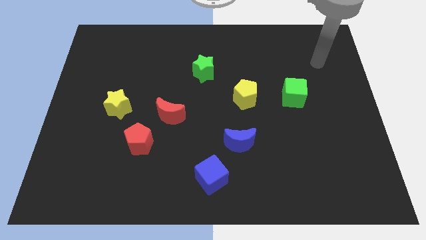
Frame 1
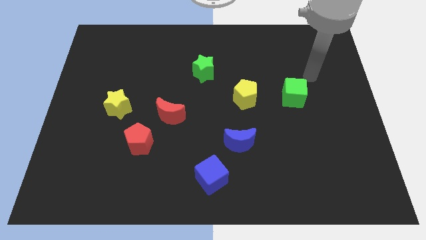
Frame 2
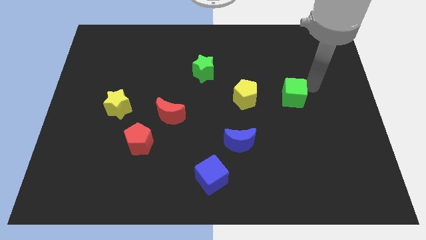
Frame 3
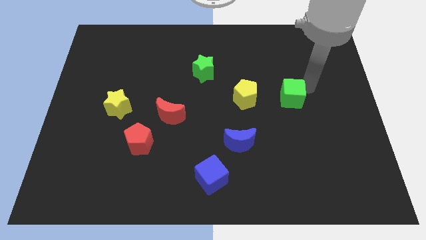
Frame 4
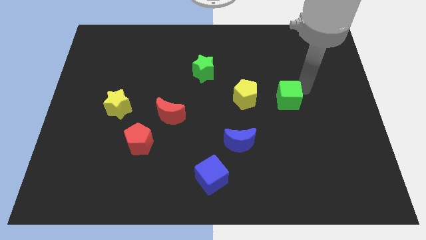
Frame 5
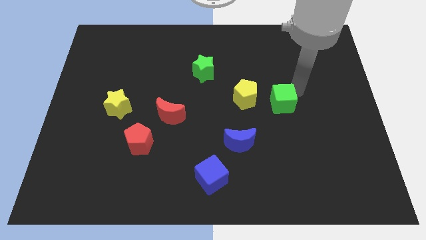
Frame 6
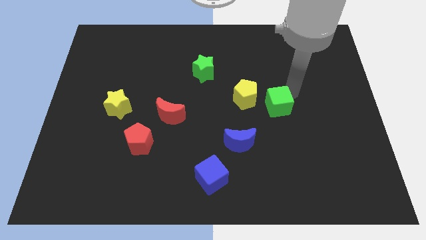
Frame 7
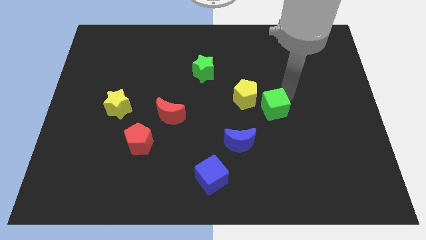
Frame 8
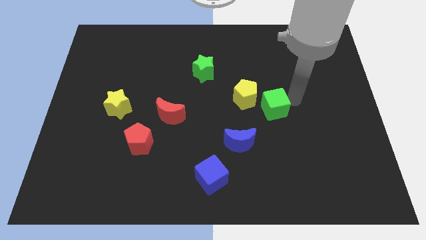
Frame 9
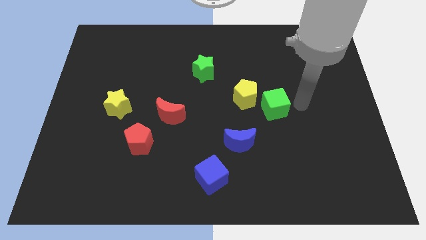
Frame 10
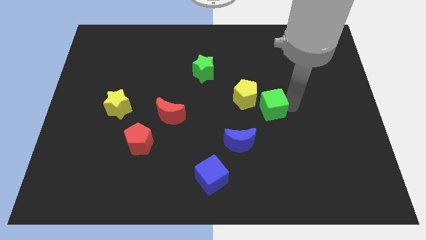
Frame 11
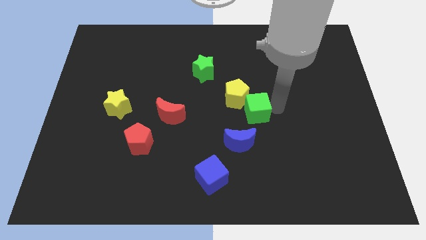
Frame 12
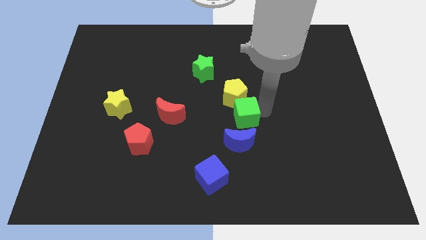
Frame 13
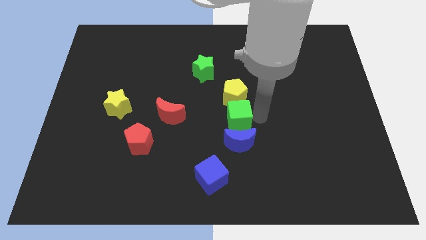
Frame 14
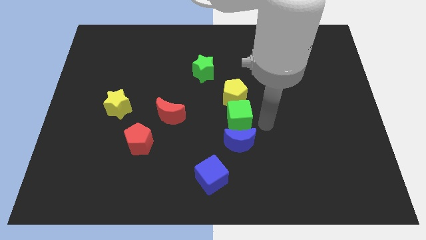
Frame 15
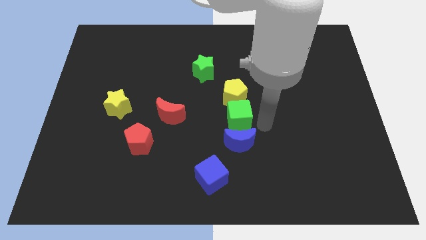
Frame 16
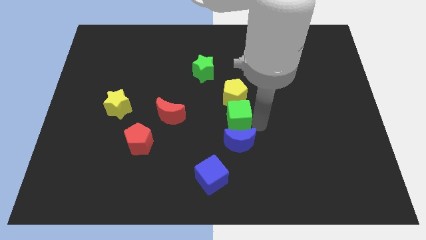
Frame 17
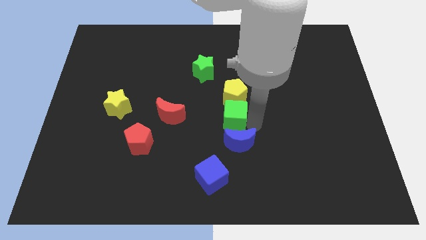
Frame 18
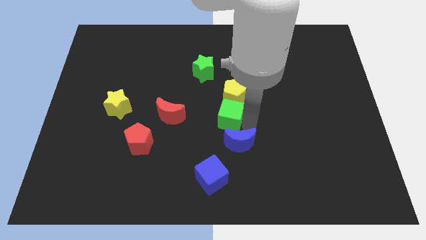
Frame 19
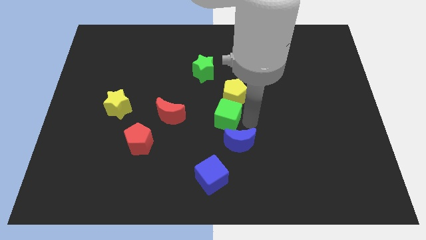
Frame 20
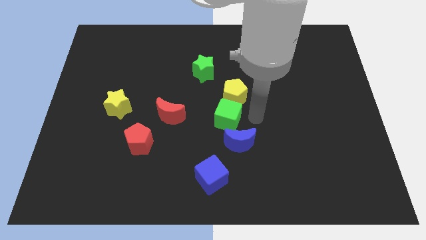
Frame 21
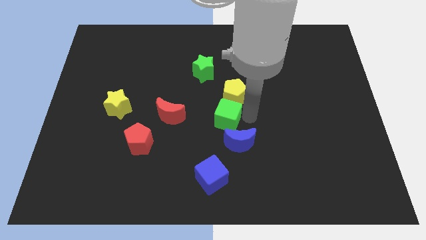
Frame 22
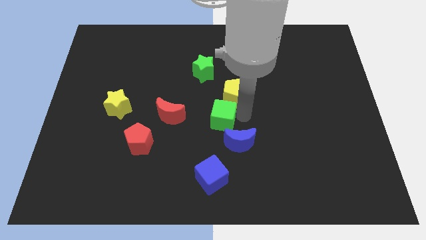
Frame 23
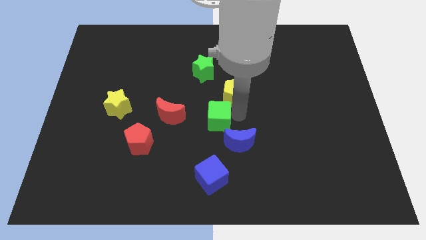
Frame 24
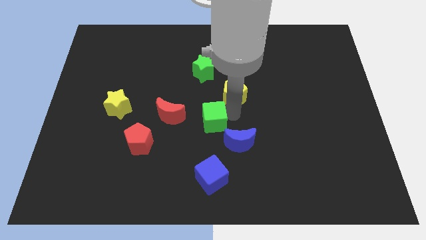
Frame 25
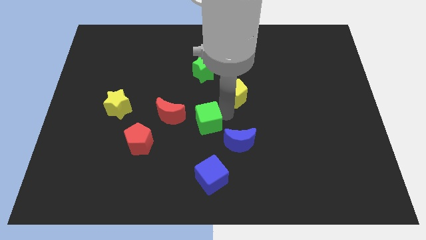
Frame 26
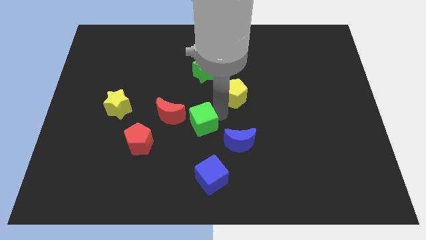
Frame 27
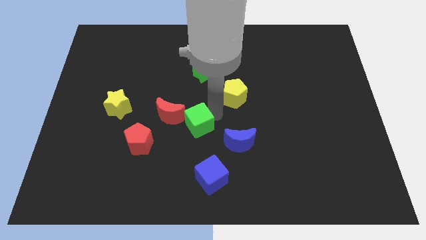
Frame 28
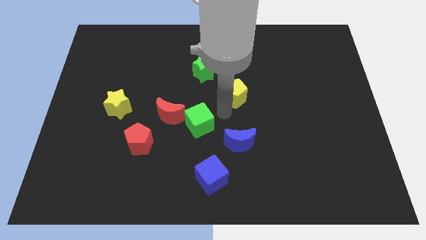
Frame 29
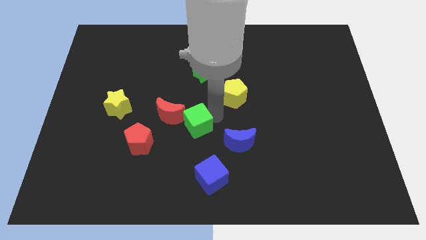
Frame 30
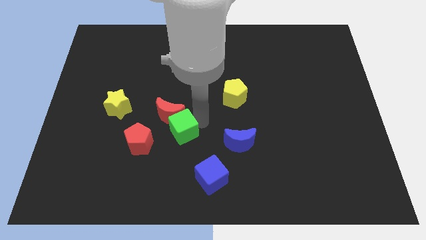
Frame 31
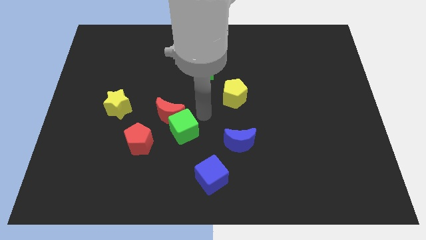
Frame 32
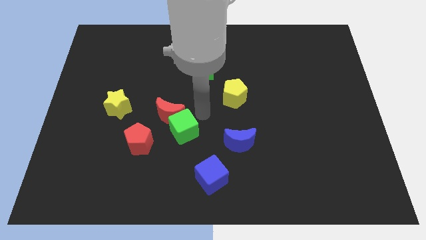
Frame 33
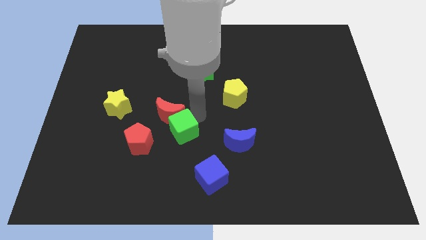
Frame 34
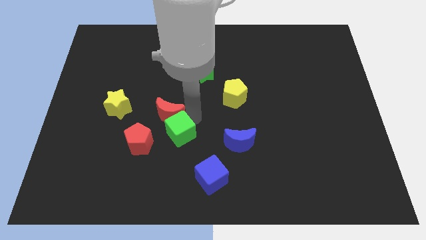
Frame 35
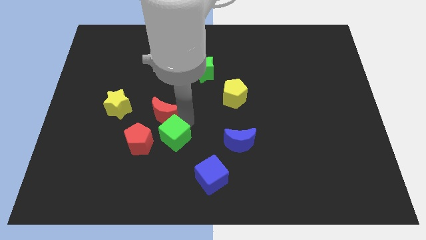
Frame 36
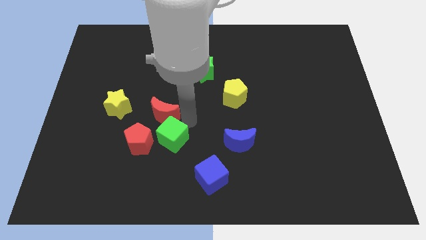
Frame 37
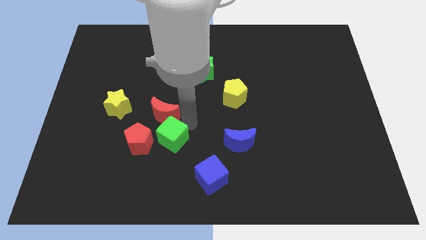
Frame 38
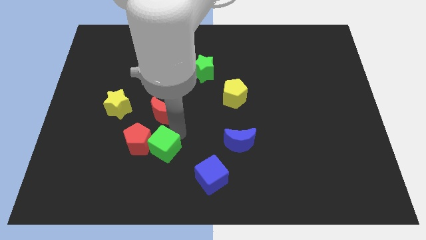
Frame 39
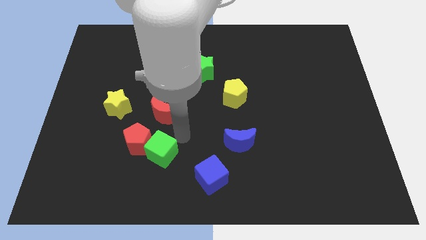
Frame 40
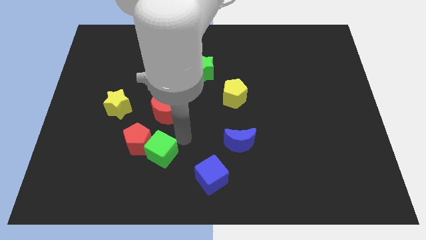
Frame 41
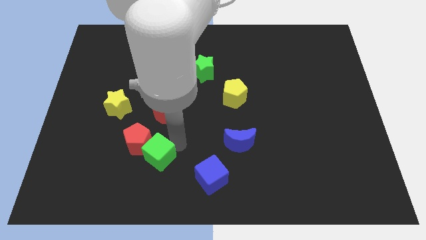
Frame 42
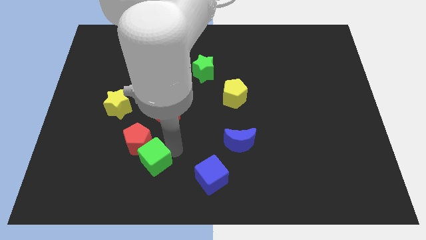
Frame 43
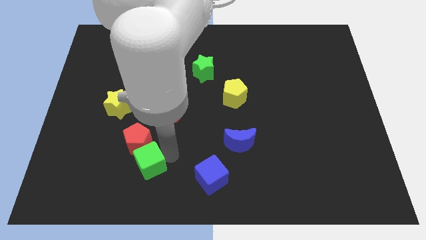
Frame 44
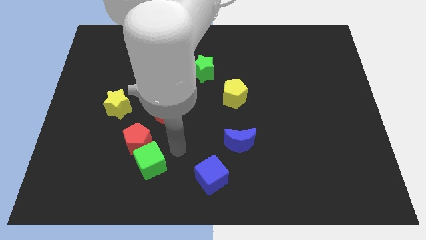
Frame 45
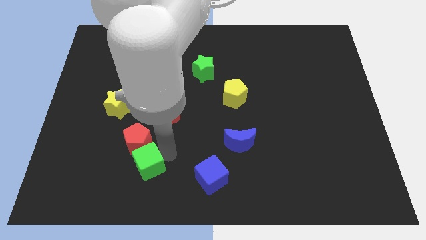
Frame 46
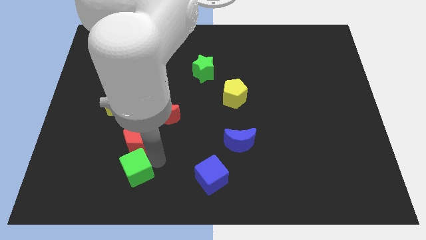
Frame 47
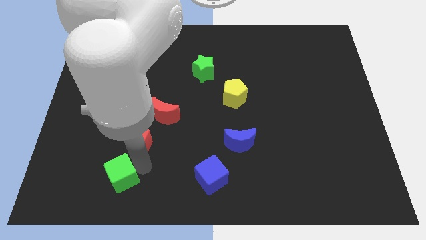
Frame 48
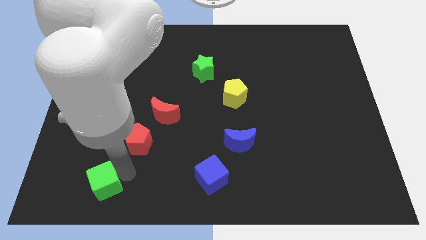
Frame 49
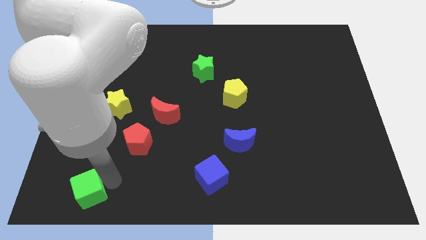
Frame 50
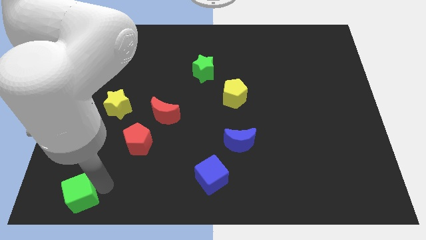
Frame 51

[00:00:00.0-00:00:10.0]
slide the green cube to the bottom left corner

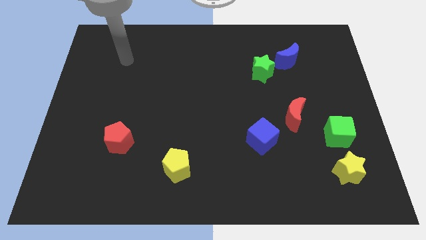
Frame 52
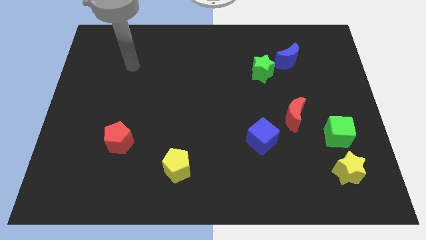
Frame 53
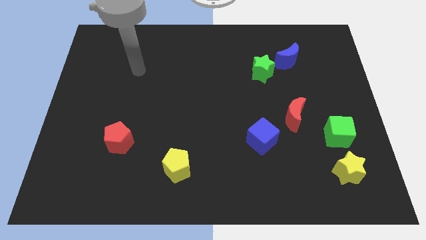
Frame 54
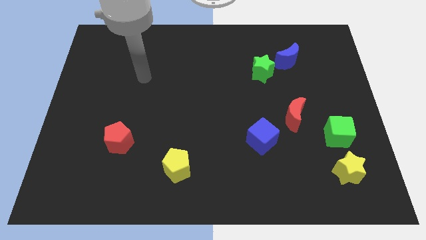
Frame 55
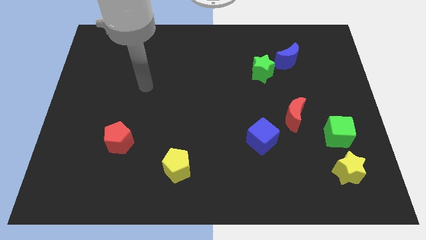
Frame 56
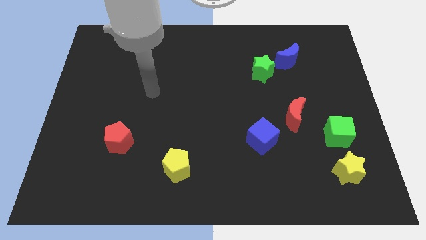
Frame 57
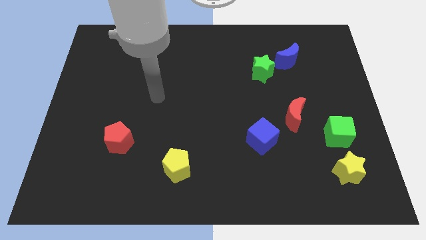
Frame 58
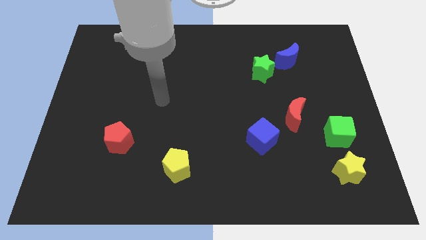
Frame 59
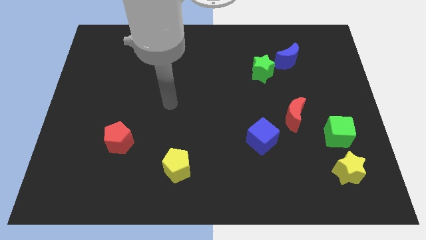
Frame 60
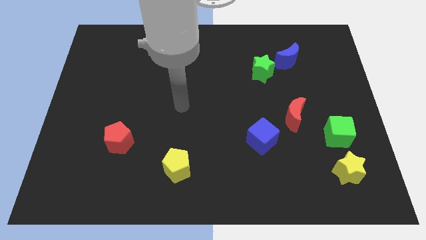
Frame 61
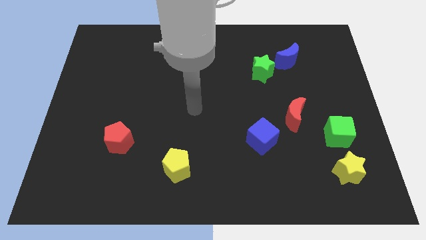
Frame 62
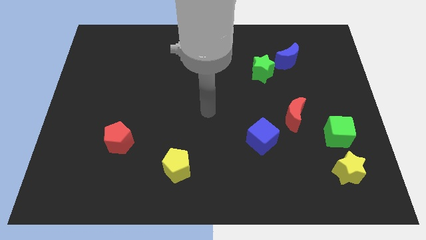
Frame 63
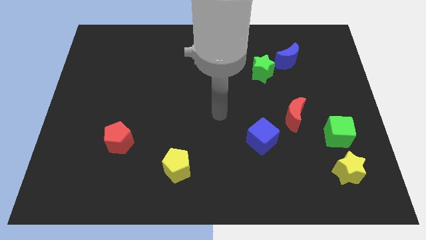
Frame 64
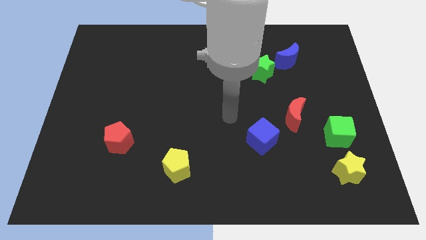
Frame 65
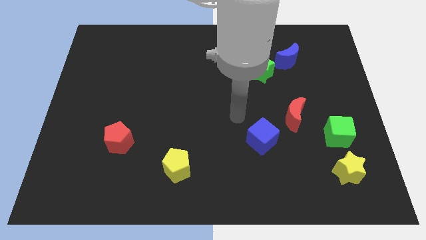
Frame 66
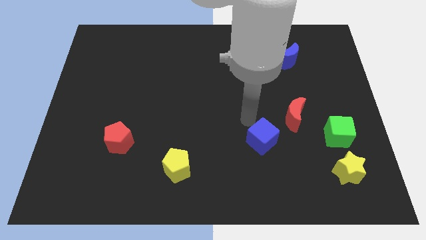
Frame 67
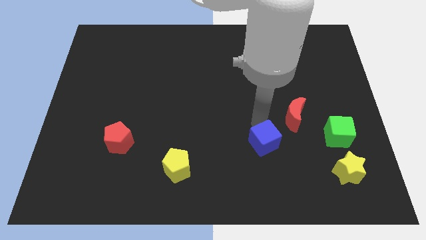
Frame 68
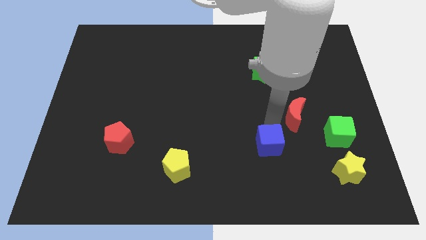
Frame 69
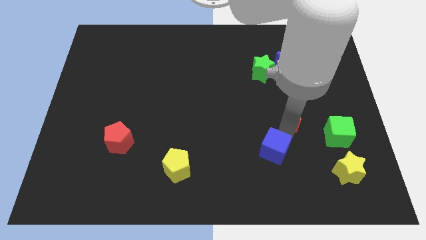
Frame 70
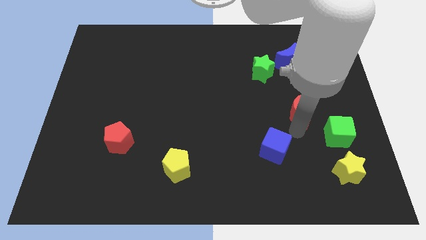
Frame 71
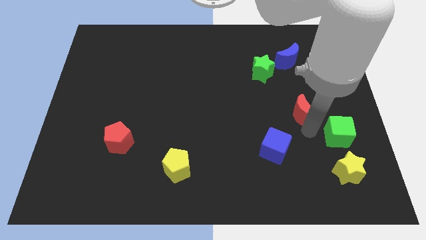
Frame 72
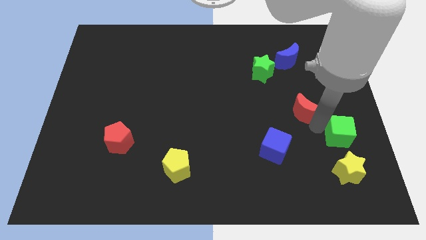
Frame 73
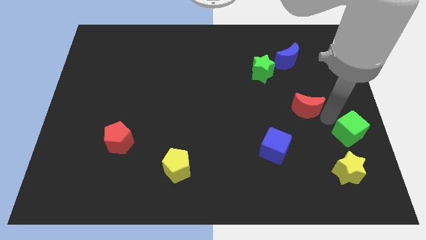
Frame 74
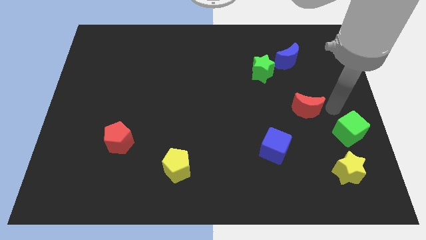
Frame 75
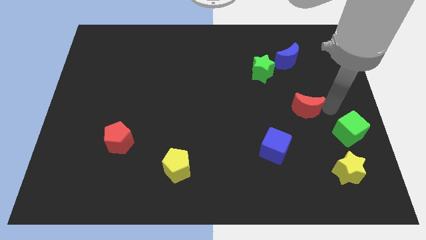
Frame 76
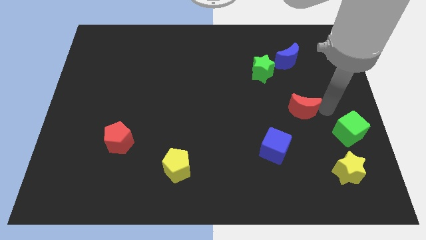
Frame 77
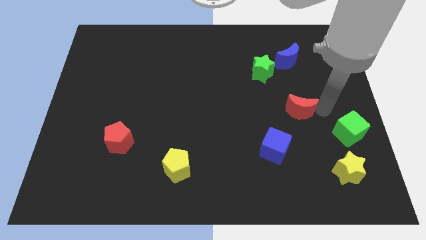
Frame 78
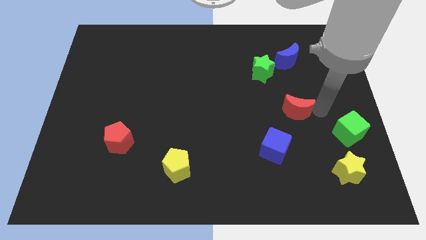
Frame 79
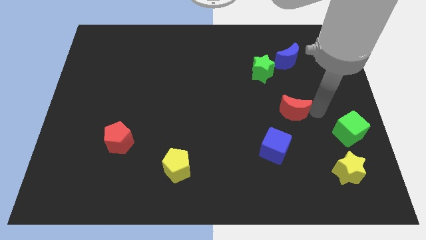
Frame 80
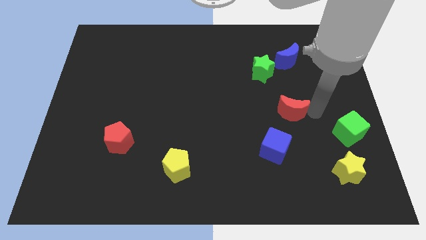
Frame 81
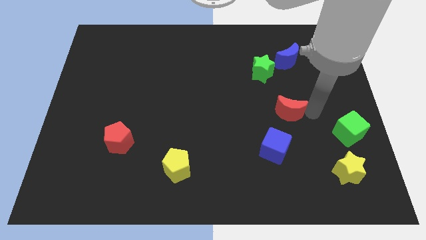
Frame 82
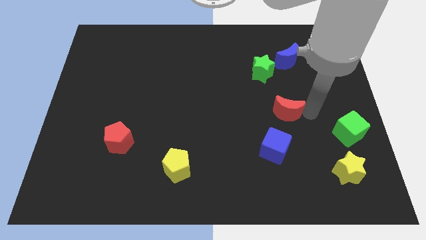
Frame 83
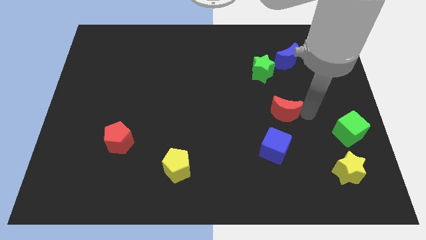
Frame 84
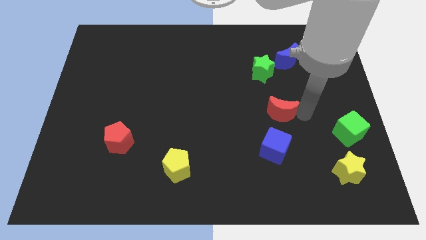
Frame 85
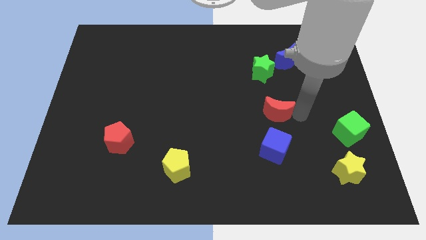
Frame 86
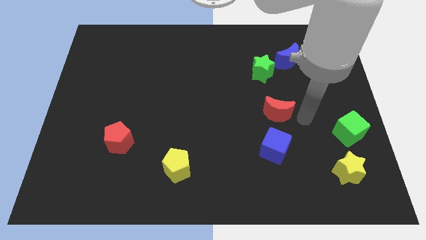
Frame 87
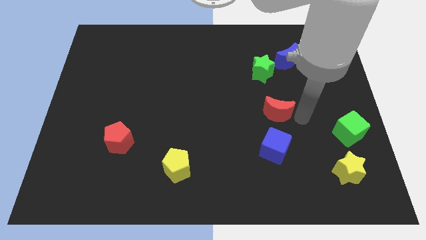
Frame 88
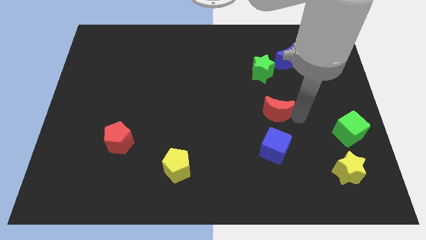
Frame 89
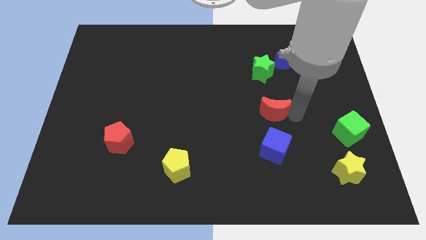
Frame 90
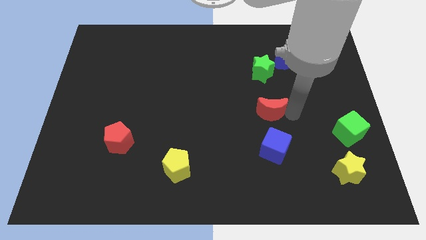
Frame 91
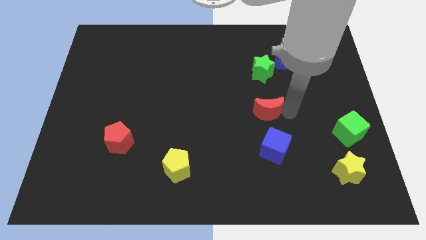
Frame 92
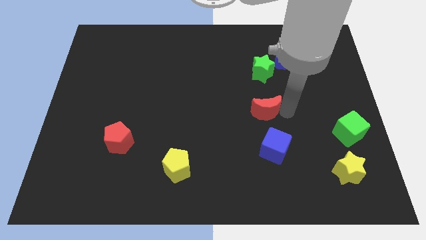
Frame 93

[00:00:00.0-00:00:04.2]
slide the red moon to the middle
